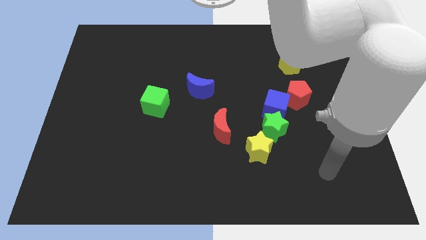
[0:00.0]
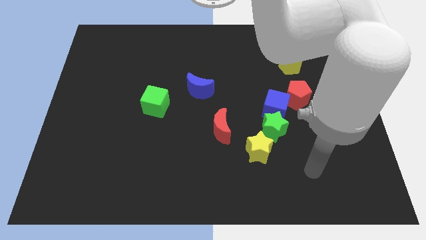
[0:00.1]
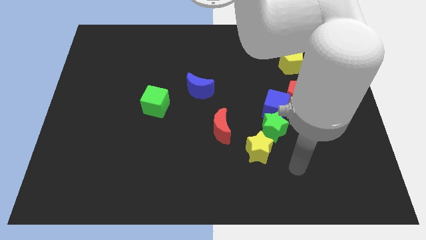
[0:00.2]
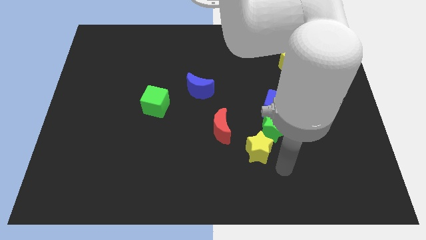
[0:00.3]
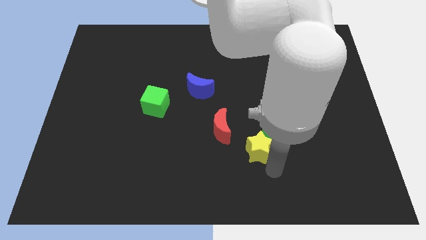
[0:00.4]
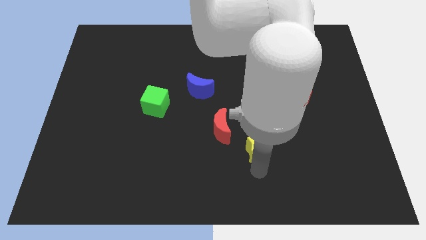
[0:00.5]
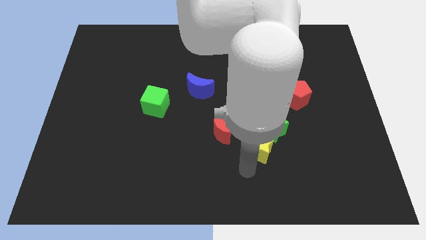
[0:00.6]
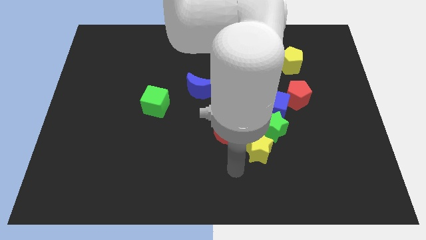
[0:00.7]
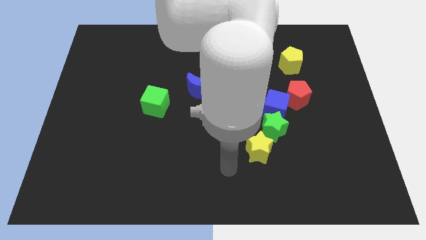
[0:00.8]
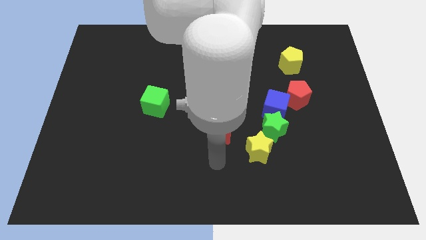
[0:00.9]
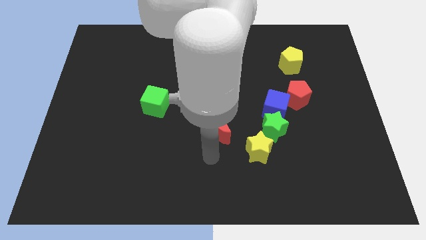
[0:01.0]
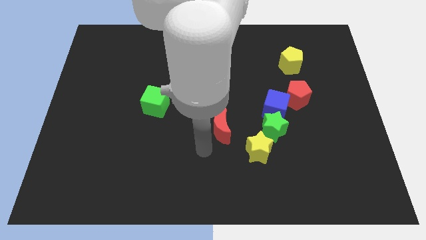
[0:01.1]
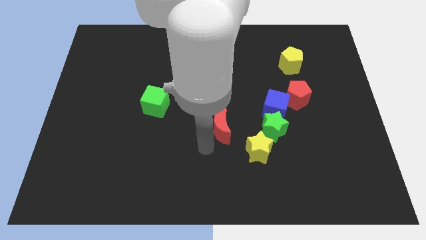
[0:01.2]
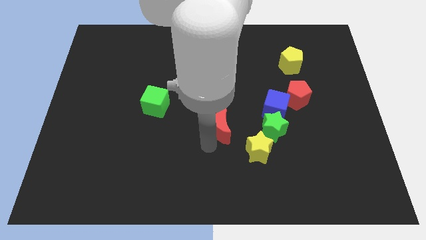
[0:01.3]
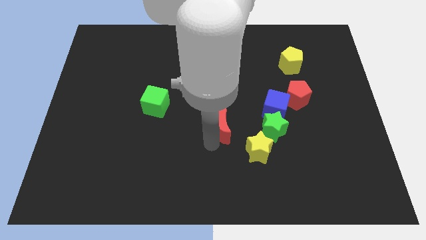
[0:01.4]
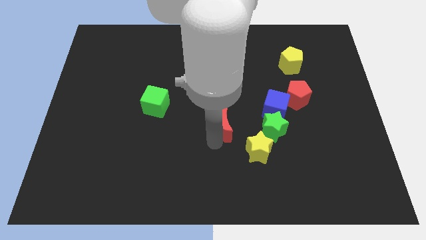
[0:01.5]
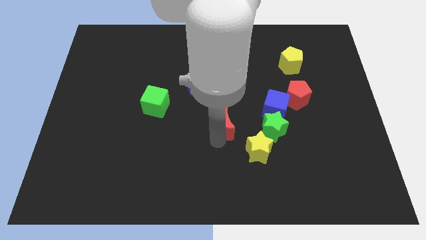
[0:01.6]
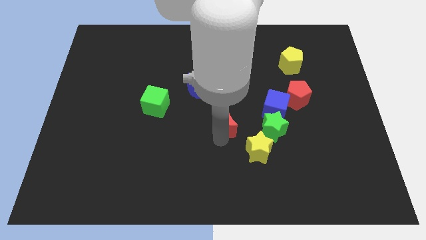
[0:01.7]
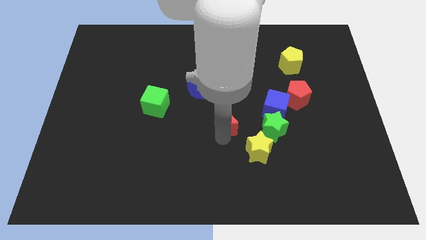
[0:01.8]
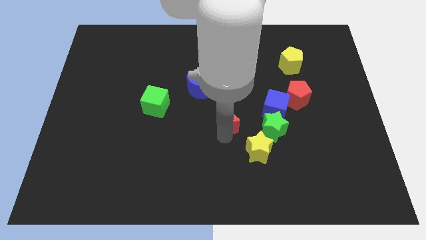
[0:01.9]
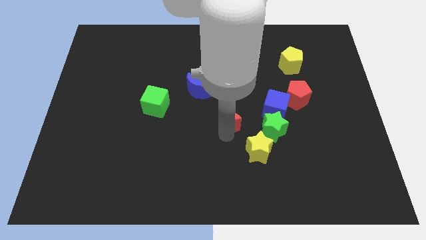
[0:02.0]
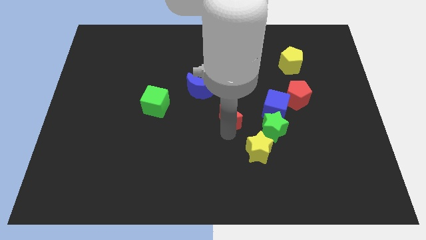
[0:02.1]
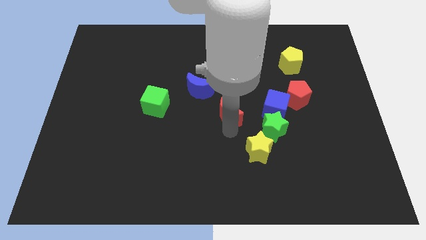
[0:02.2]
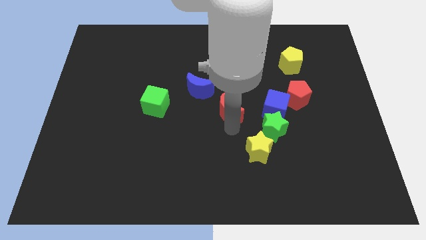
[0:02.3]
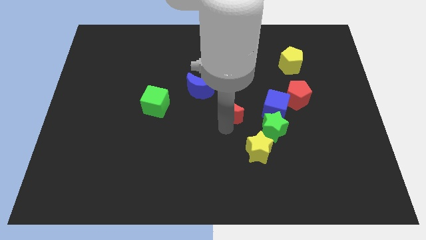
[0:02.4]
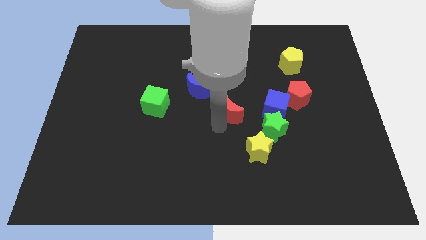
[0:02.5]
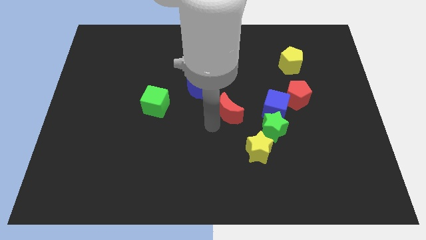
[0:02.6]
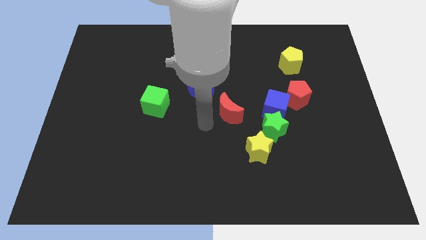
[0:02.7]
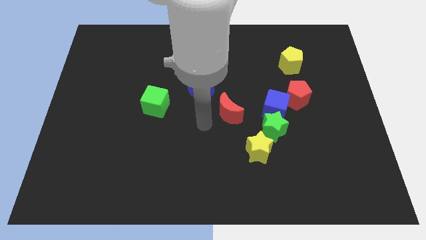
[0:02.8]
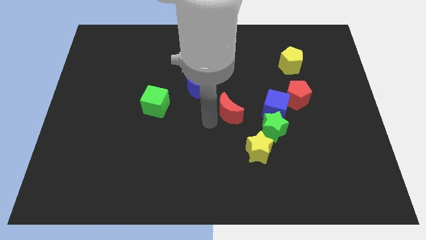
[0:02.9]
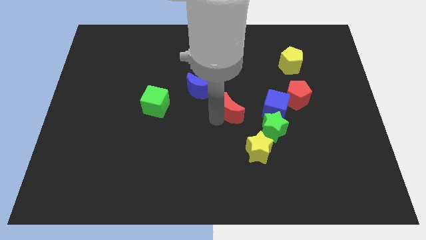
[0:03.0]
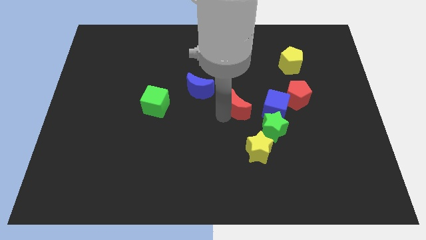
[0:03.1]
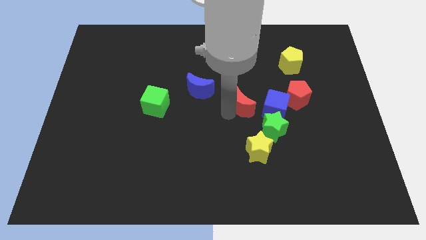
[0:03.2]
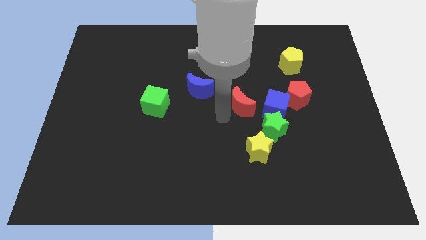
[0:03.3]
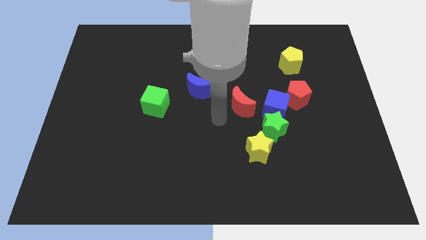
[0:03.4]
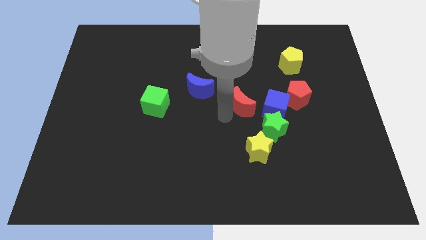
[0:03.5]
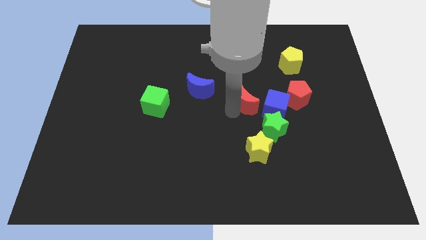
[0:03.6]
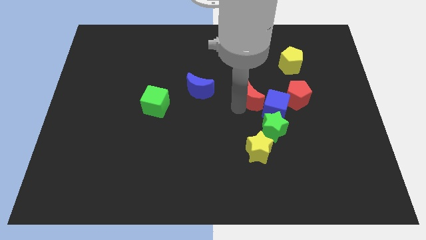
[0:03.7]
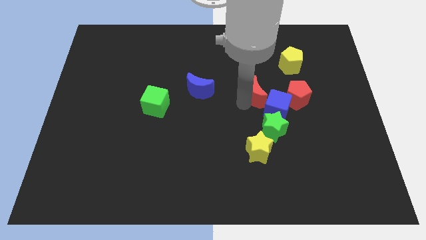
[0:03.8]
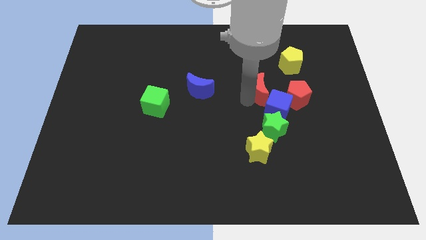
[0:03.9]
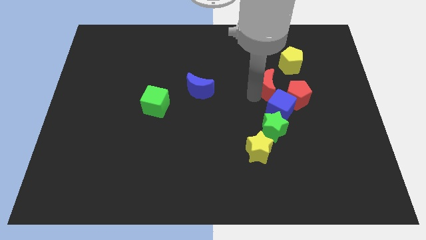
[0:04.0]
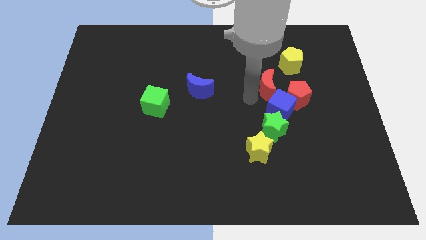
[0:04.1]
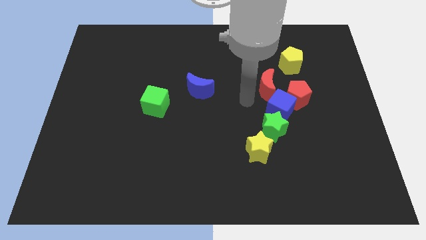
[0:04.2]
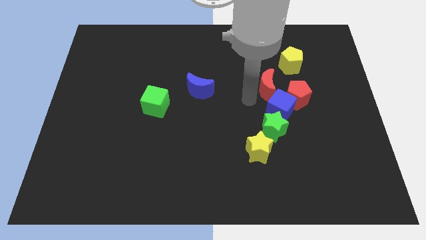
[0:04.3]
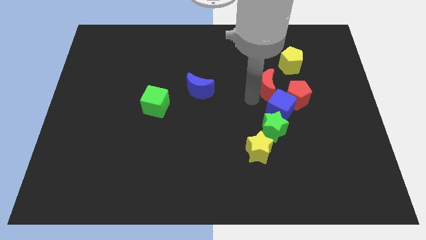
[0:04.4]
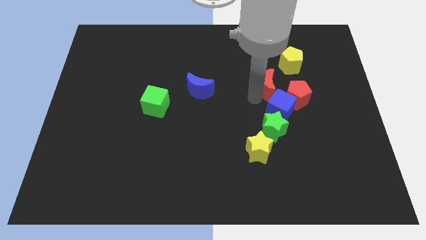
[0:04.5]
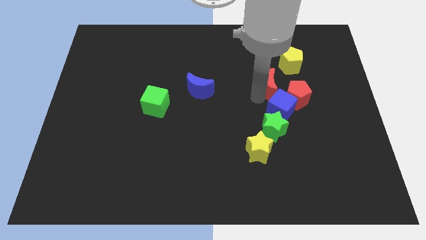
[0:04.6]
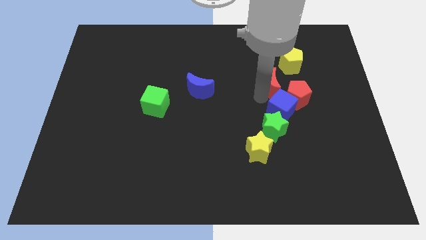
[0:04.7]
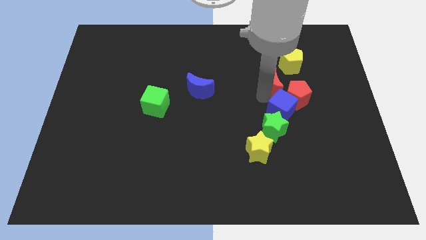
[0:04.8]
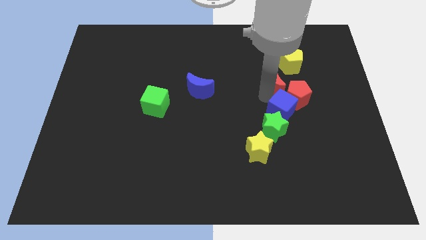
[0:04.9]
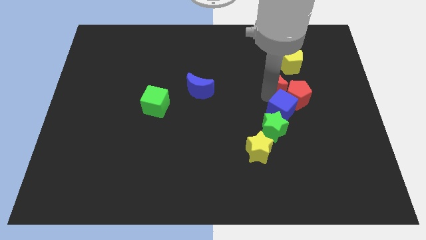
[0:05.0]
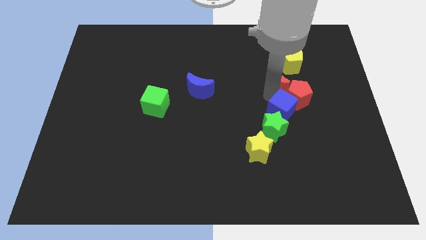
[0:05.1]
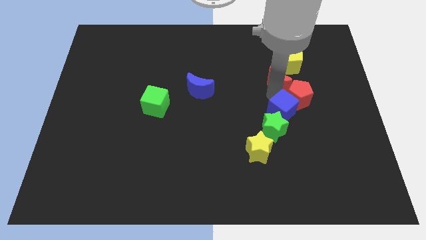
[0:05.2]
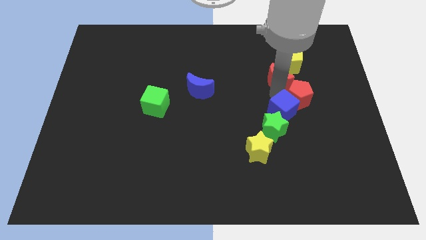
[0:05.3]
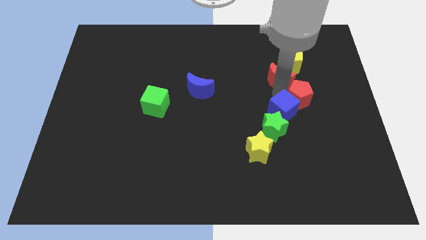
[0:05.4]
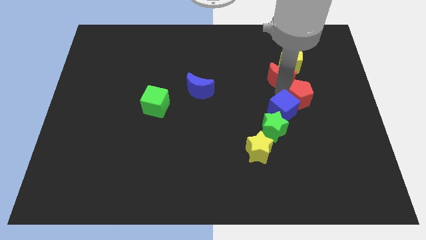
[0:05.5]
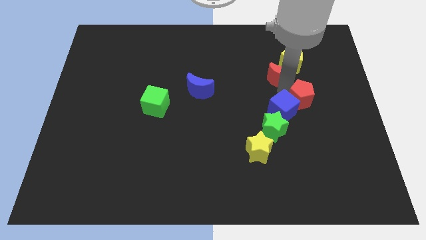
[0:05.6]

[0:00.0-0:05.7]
put the red moon next to the yellow pentagon

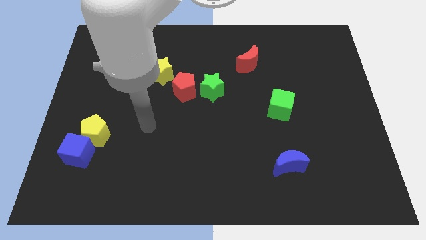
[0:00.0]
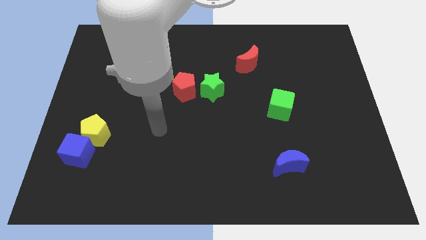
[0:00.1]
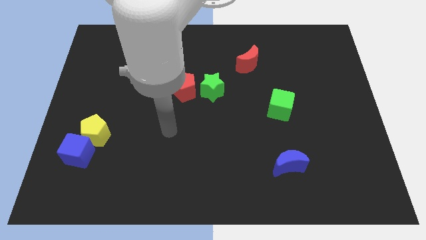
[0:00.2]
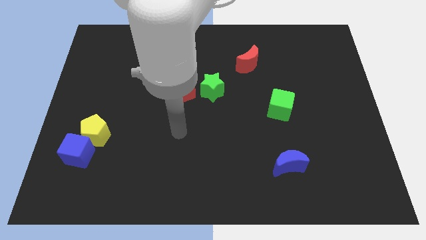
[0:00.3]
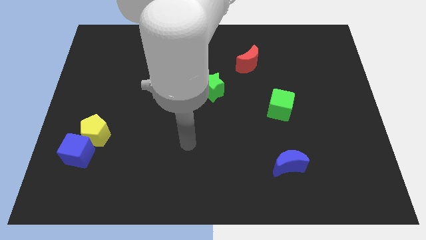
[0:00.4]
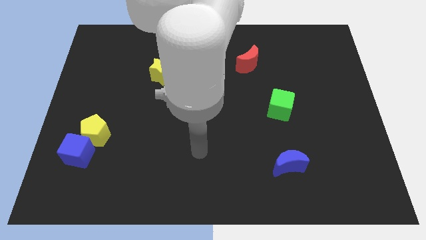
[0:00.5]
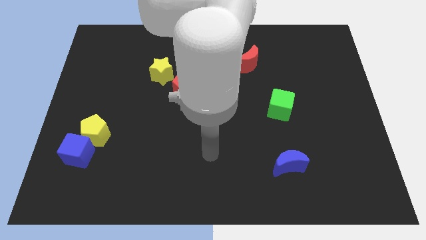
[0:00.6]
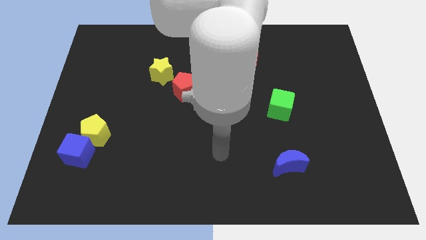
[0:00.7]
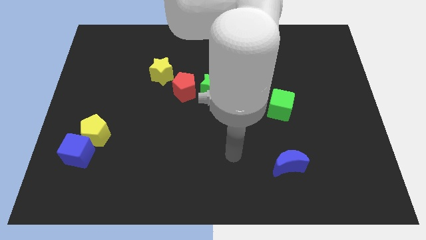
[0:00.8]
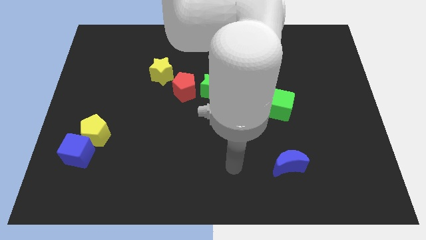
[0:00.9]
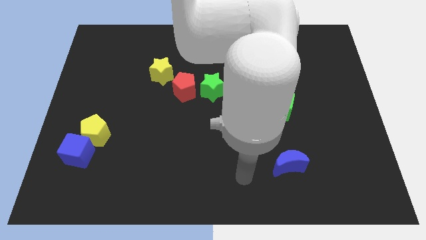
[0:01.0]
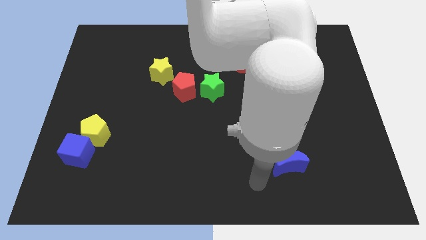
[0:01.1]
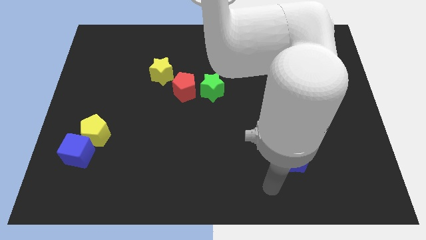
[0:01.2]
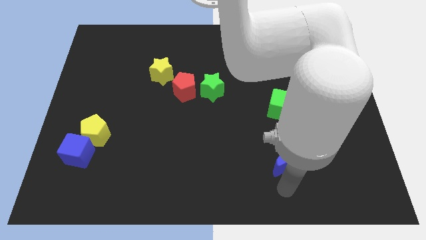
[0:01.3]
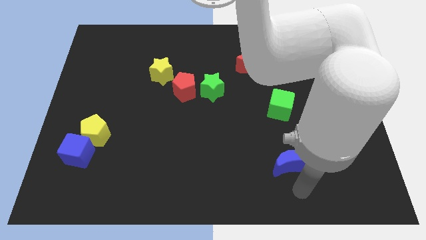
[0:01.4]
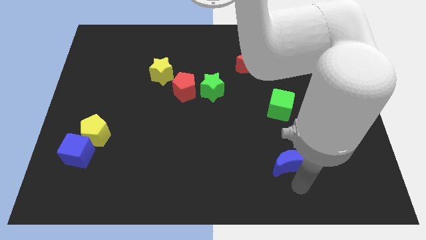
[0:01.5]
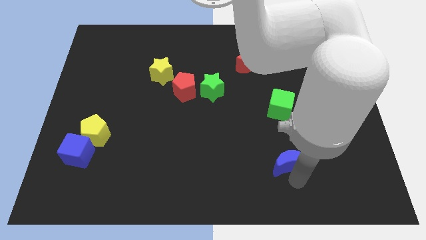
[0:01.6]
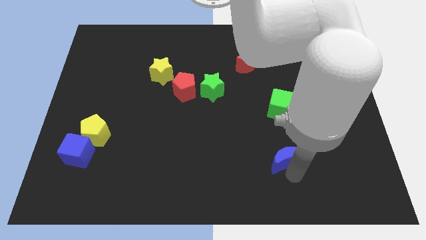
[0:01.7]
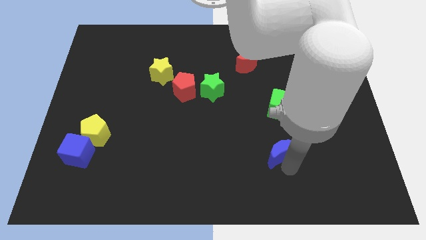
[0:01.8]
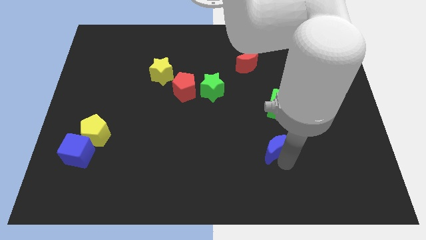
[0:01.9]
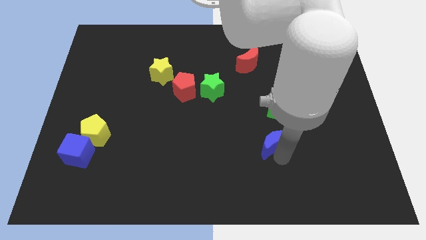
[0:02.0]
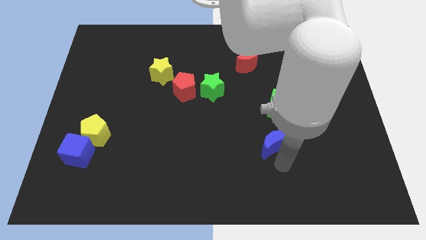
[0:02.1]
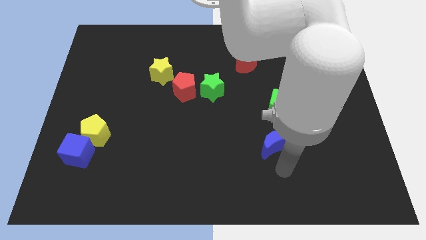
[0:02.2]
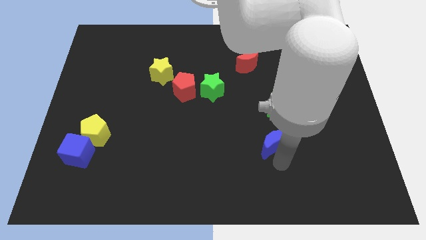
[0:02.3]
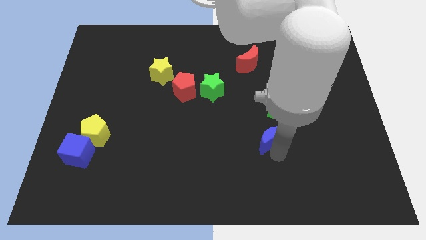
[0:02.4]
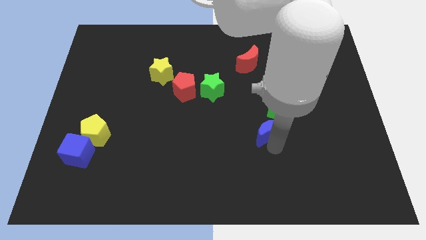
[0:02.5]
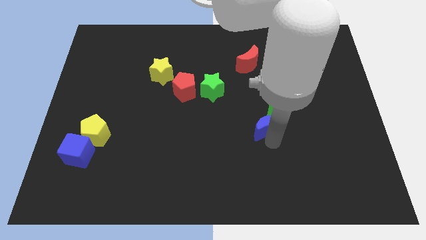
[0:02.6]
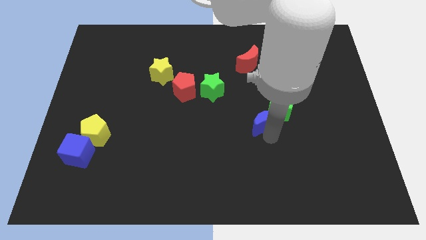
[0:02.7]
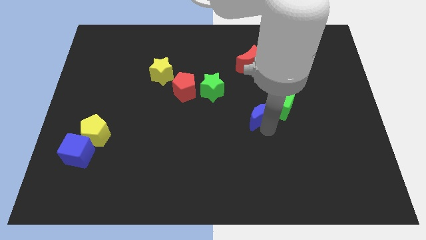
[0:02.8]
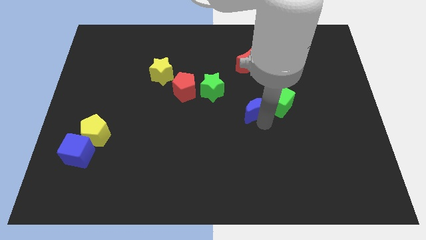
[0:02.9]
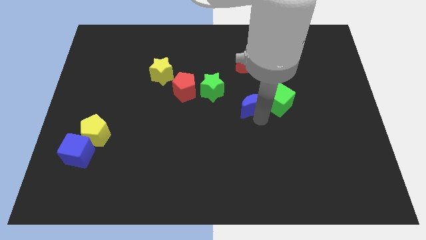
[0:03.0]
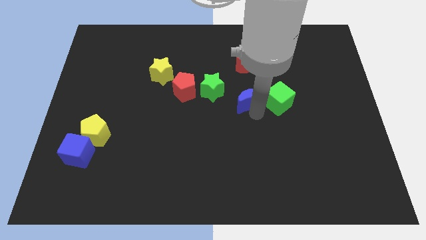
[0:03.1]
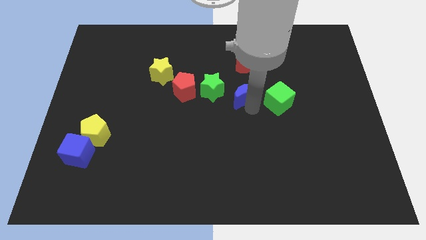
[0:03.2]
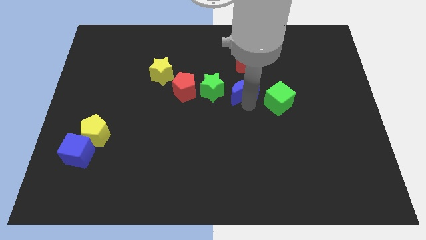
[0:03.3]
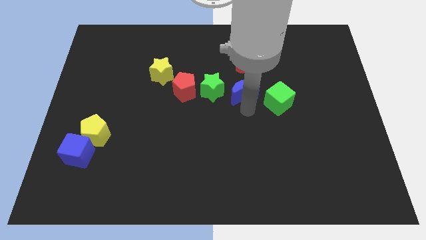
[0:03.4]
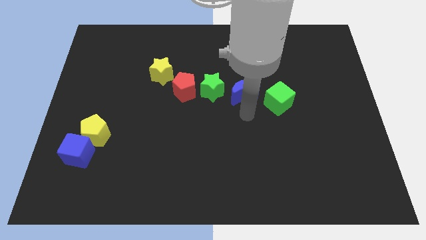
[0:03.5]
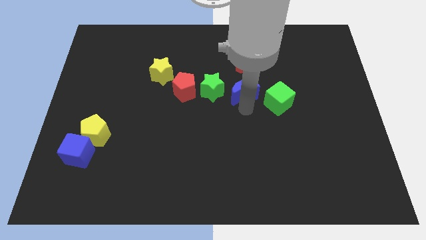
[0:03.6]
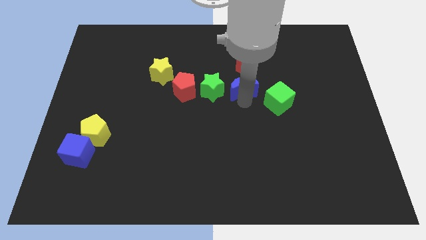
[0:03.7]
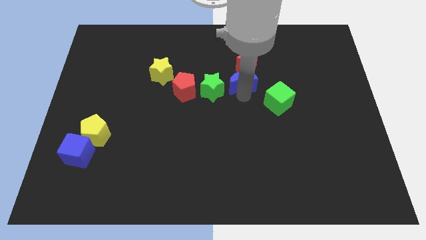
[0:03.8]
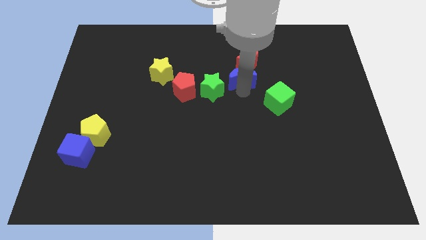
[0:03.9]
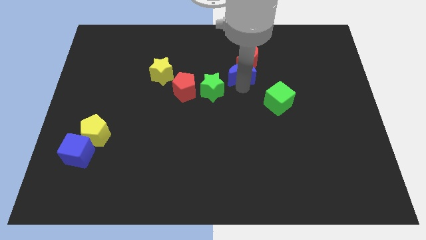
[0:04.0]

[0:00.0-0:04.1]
push the blue moon to the red moon
